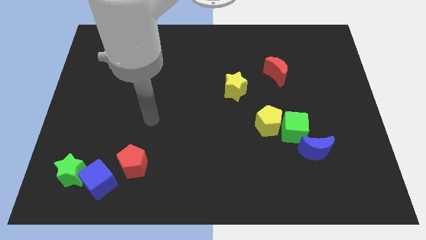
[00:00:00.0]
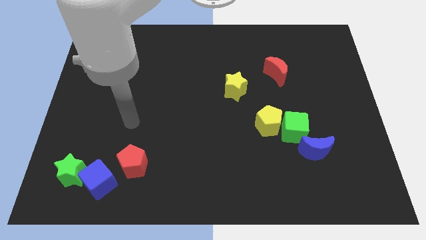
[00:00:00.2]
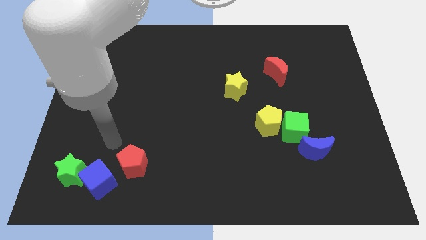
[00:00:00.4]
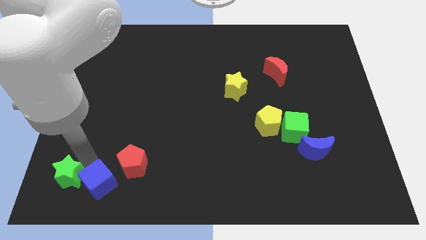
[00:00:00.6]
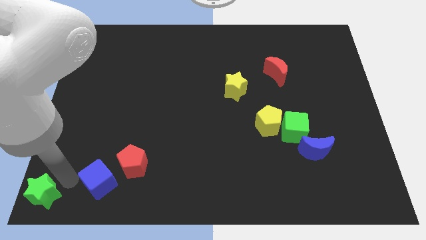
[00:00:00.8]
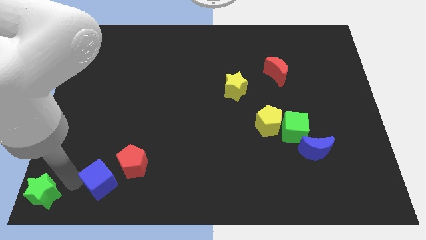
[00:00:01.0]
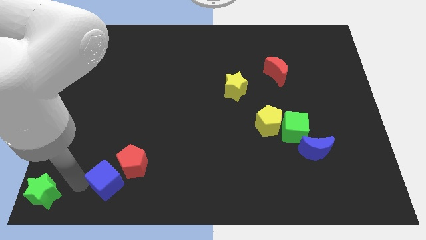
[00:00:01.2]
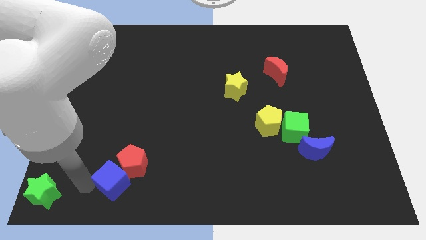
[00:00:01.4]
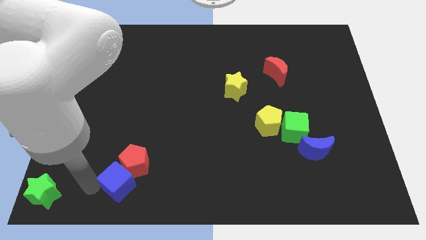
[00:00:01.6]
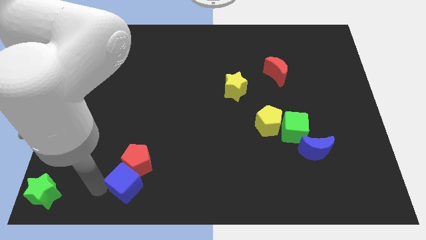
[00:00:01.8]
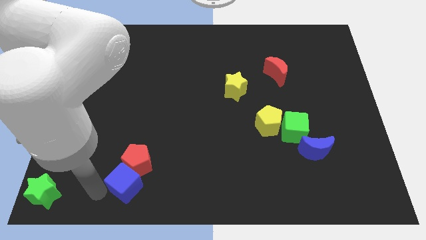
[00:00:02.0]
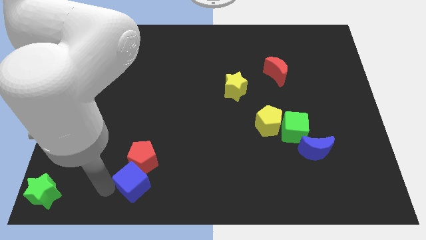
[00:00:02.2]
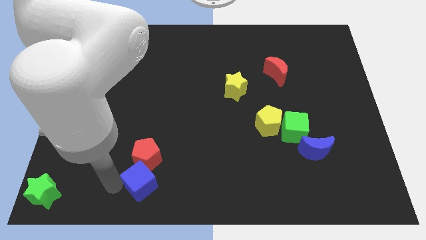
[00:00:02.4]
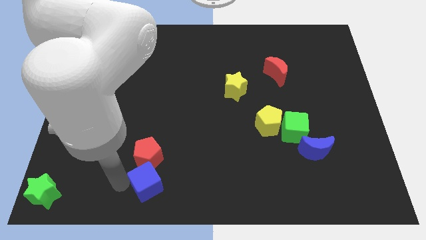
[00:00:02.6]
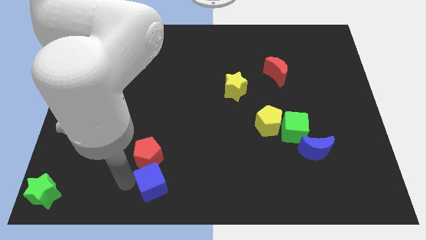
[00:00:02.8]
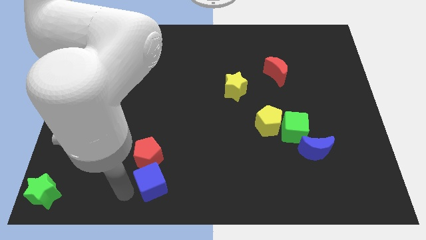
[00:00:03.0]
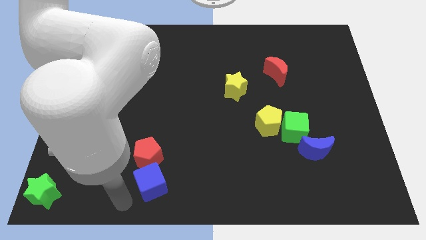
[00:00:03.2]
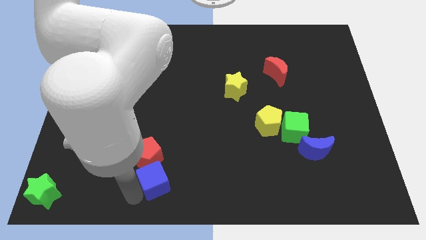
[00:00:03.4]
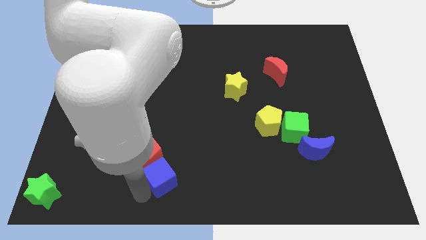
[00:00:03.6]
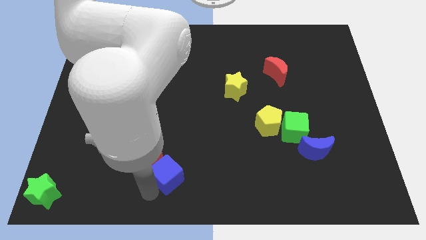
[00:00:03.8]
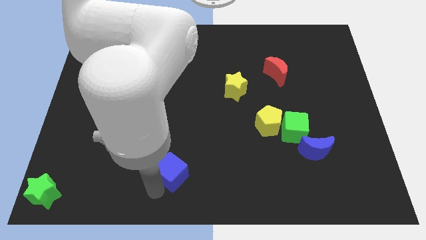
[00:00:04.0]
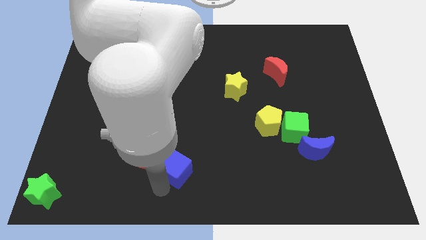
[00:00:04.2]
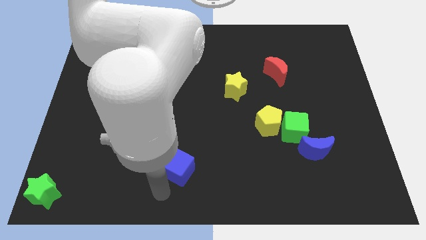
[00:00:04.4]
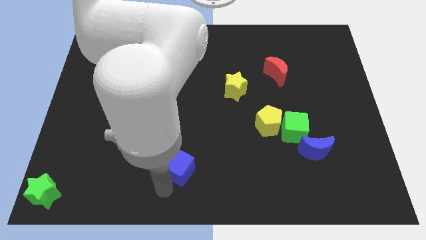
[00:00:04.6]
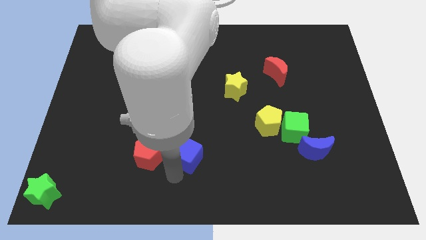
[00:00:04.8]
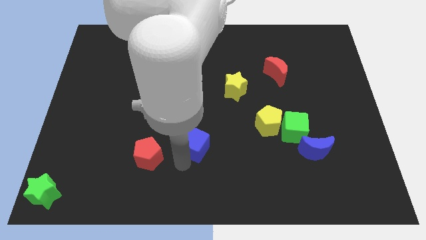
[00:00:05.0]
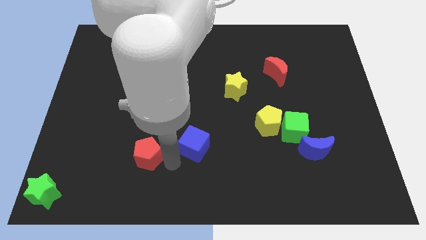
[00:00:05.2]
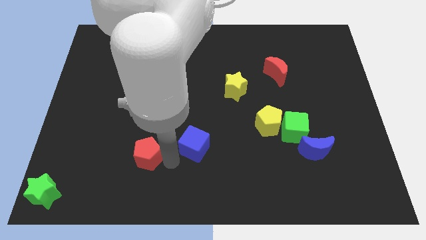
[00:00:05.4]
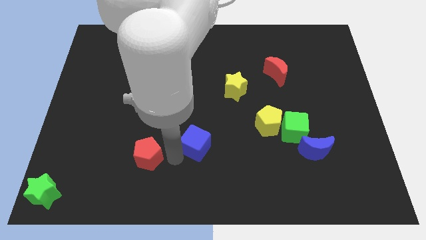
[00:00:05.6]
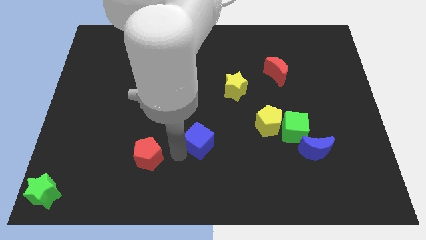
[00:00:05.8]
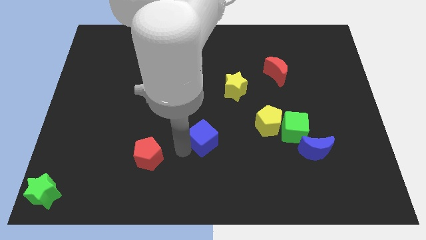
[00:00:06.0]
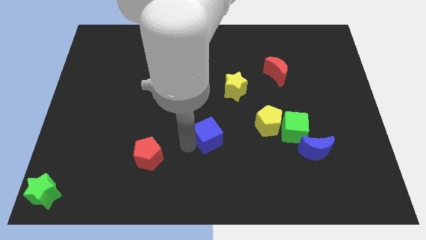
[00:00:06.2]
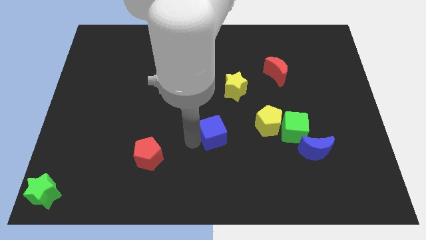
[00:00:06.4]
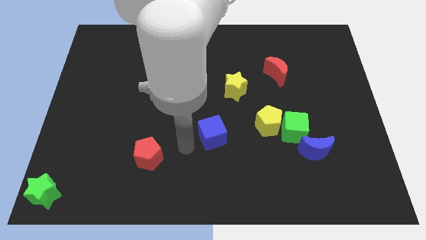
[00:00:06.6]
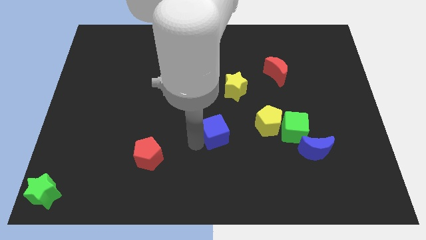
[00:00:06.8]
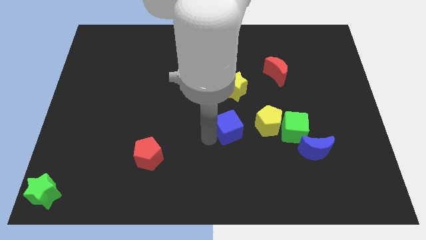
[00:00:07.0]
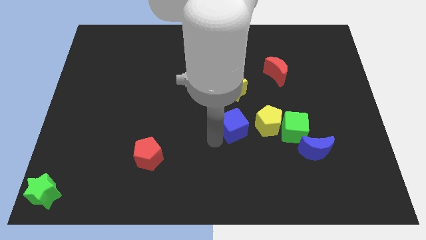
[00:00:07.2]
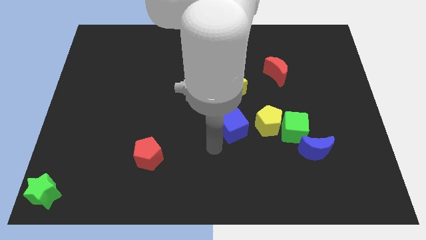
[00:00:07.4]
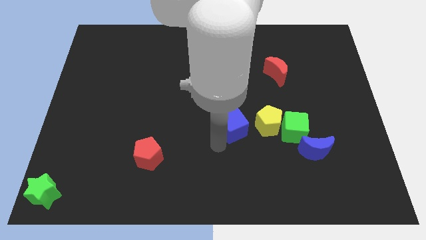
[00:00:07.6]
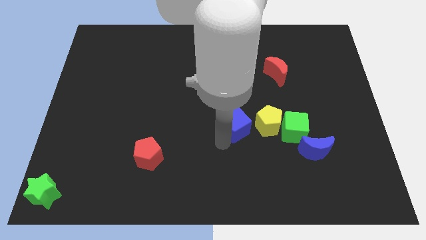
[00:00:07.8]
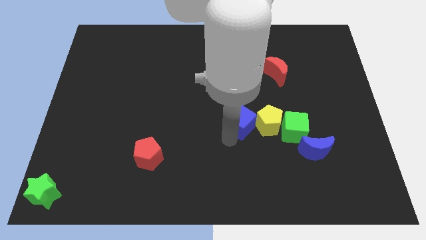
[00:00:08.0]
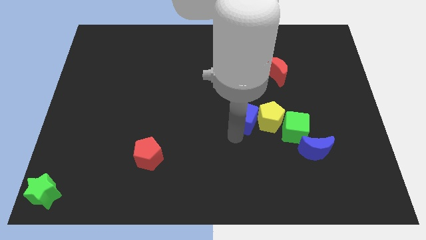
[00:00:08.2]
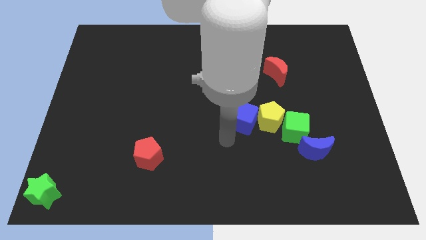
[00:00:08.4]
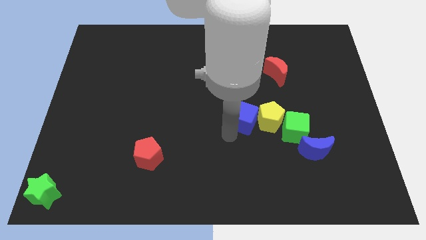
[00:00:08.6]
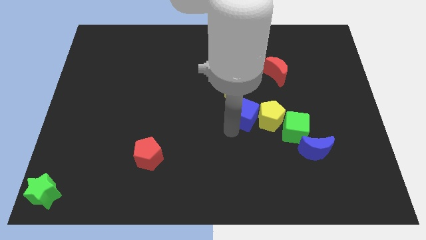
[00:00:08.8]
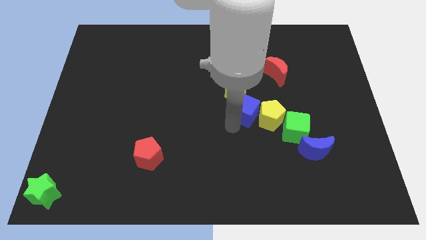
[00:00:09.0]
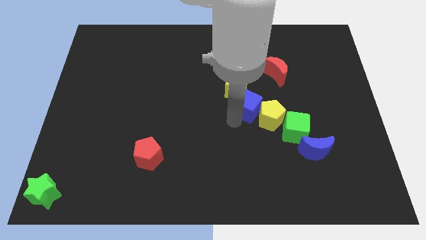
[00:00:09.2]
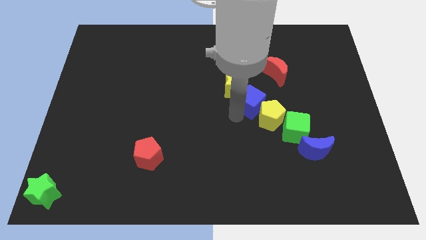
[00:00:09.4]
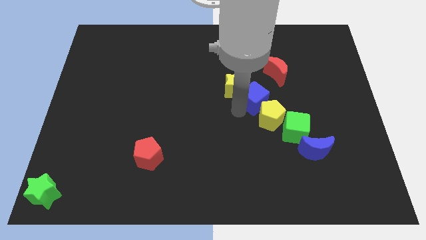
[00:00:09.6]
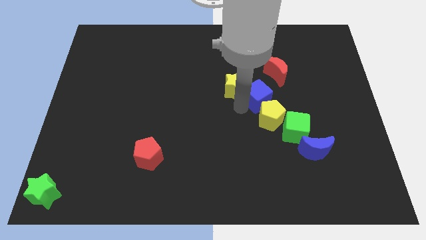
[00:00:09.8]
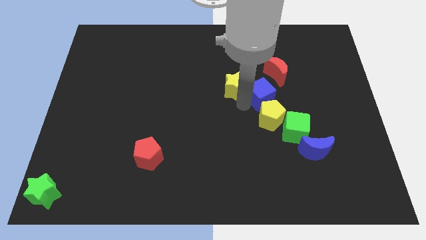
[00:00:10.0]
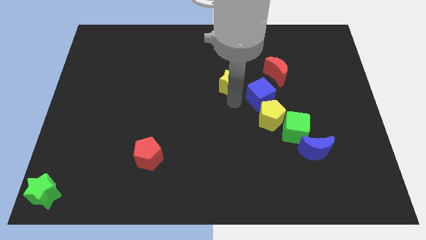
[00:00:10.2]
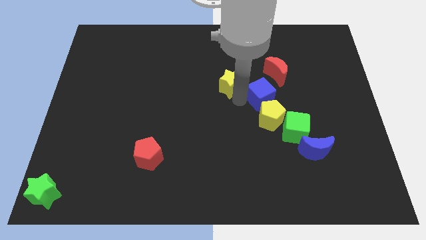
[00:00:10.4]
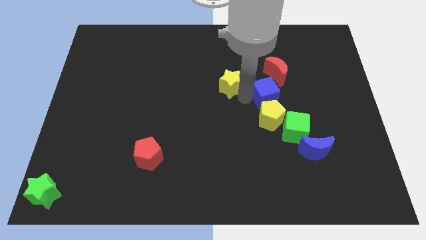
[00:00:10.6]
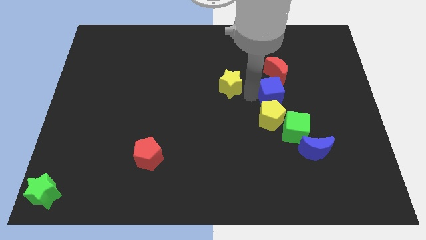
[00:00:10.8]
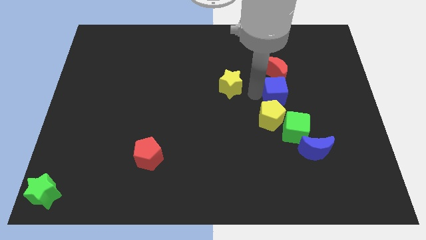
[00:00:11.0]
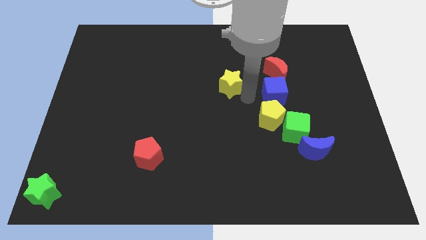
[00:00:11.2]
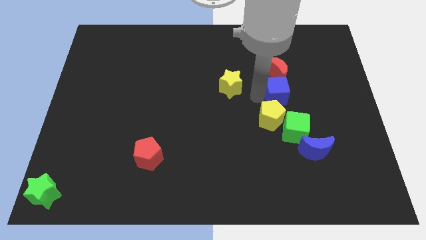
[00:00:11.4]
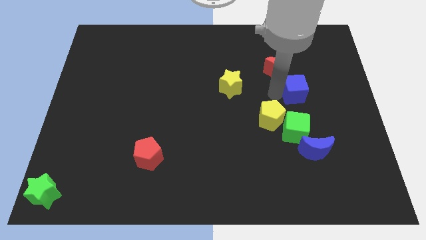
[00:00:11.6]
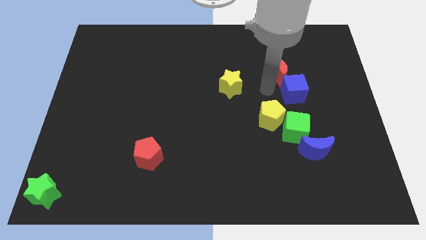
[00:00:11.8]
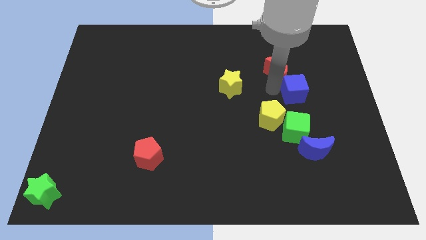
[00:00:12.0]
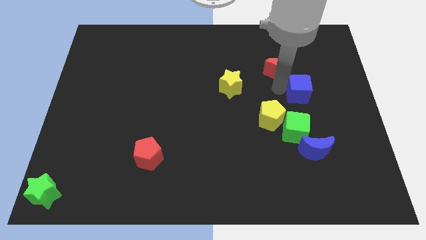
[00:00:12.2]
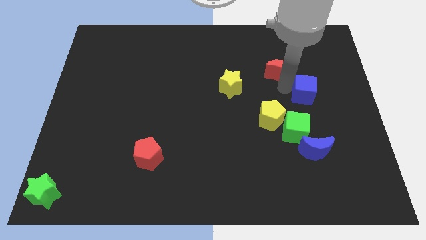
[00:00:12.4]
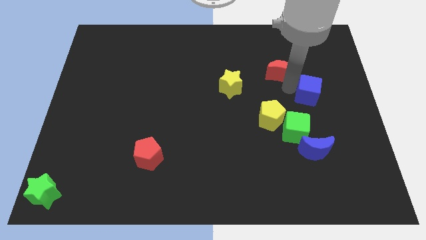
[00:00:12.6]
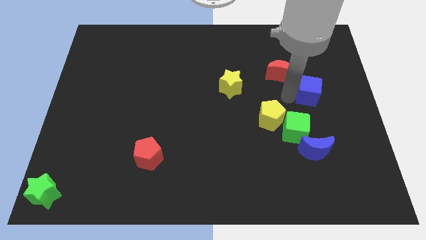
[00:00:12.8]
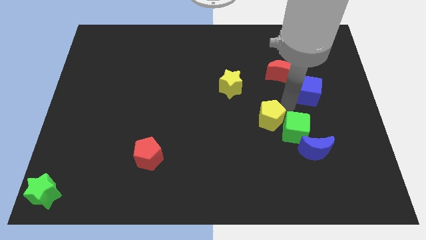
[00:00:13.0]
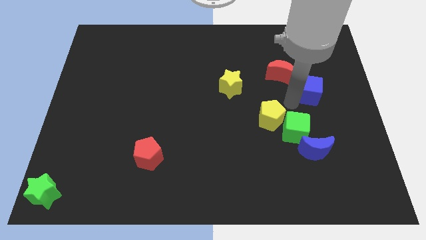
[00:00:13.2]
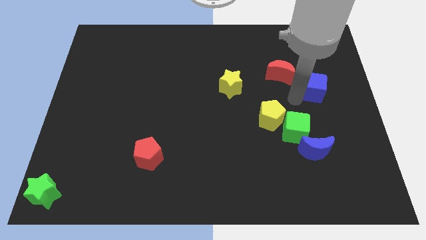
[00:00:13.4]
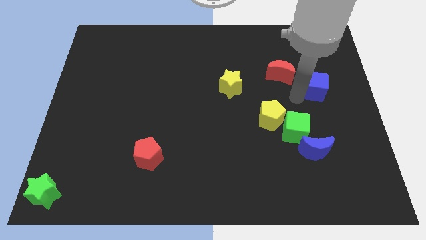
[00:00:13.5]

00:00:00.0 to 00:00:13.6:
put the blue cube to the right of the red moon

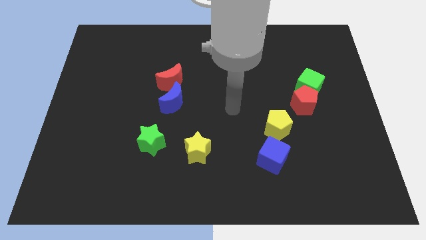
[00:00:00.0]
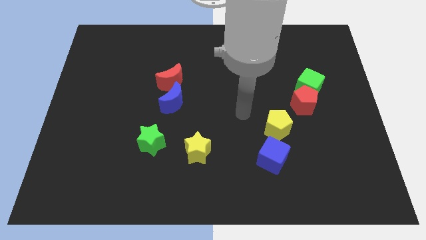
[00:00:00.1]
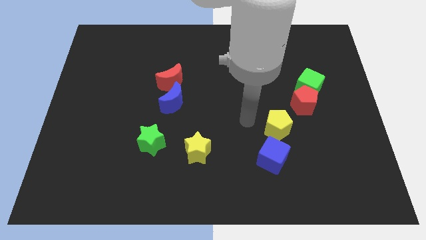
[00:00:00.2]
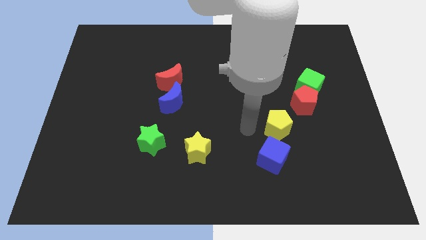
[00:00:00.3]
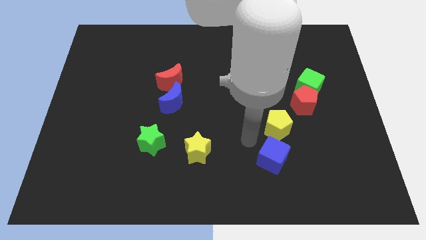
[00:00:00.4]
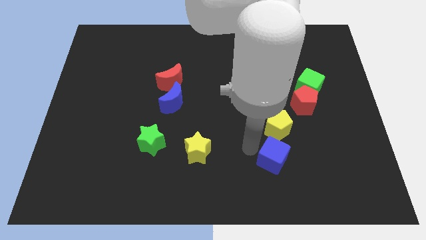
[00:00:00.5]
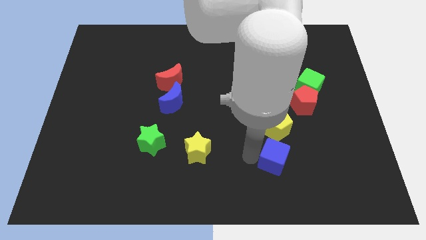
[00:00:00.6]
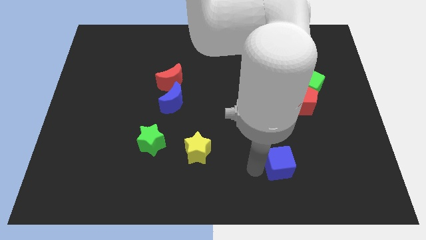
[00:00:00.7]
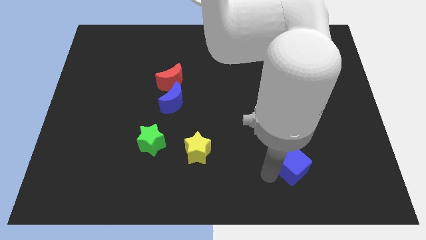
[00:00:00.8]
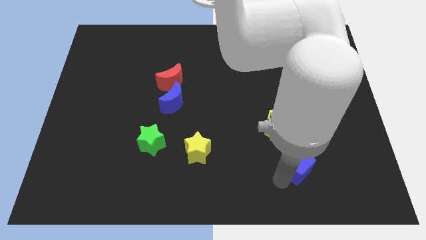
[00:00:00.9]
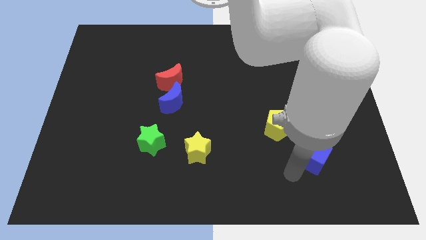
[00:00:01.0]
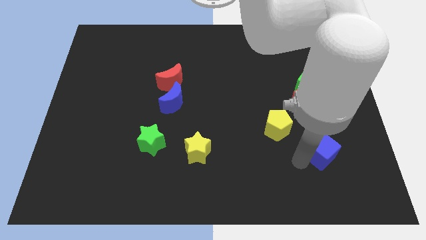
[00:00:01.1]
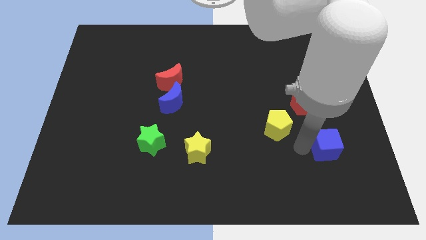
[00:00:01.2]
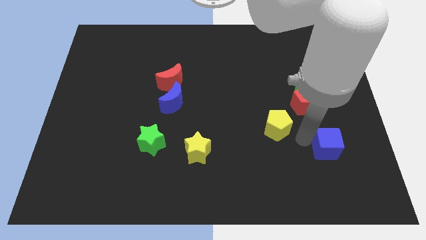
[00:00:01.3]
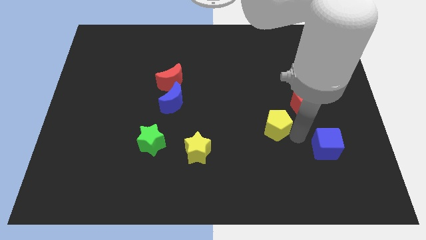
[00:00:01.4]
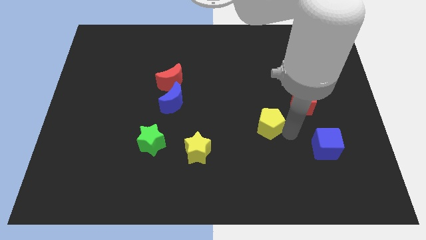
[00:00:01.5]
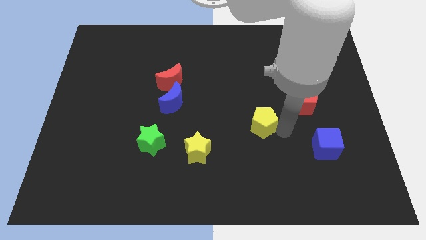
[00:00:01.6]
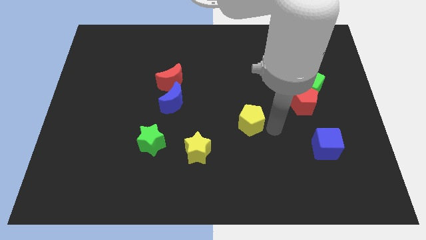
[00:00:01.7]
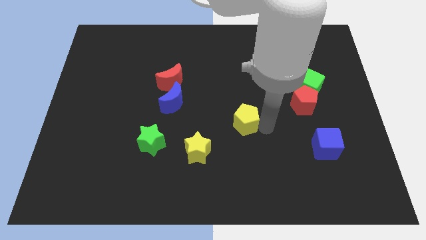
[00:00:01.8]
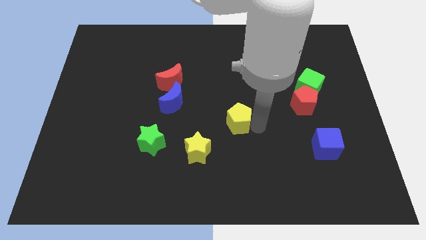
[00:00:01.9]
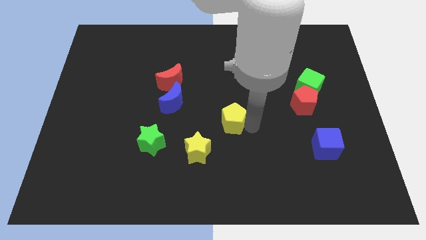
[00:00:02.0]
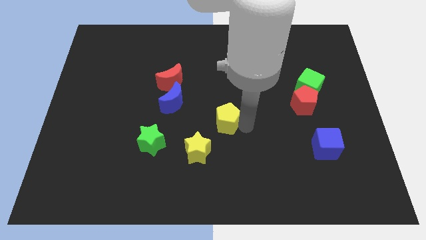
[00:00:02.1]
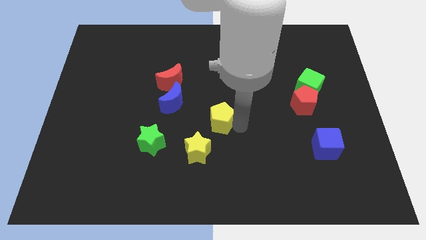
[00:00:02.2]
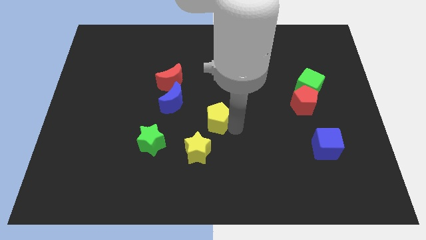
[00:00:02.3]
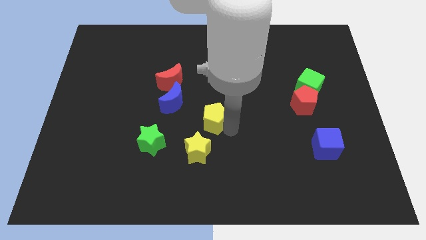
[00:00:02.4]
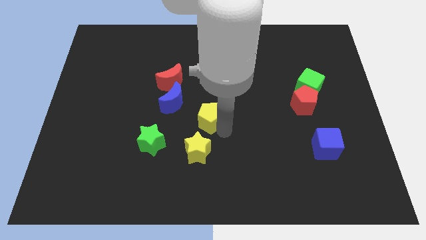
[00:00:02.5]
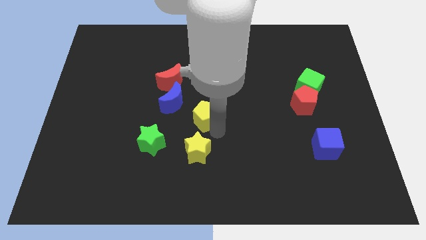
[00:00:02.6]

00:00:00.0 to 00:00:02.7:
slide the yellow pentagon just right of the blue moon
